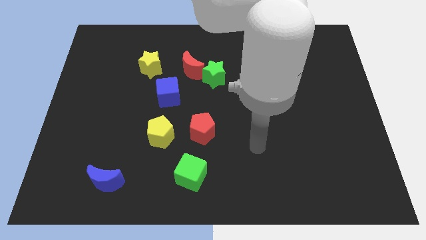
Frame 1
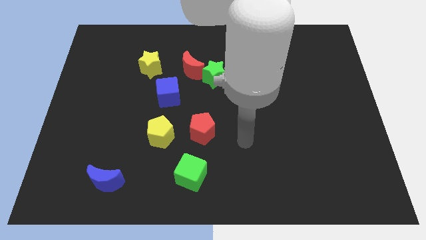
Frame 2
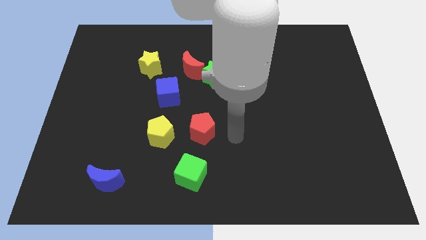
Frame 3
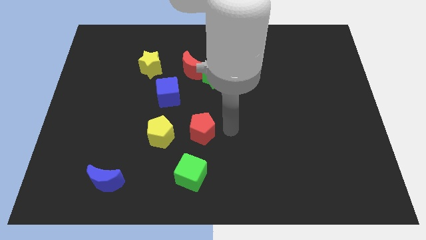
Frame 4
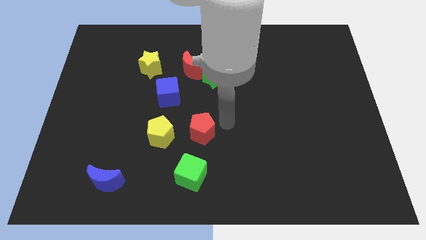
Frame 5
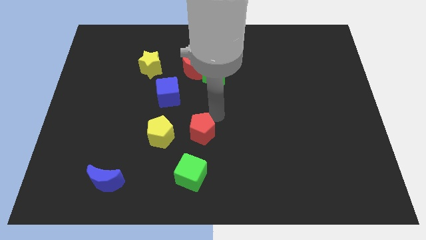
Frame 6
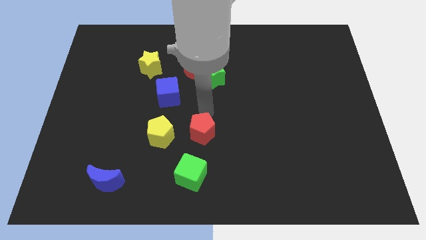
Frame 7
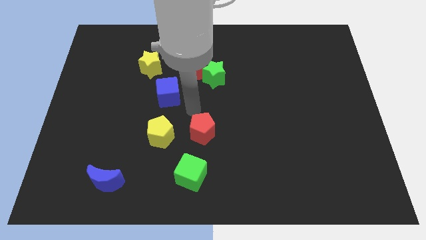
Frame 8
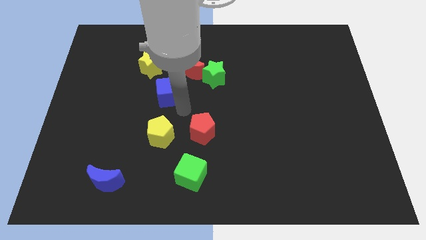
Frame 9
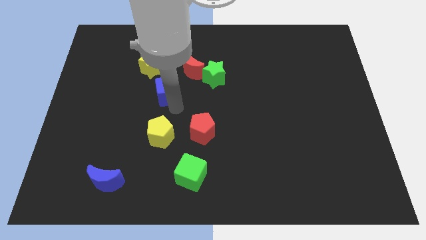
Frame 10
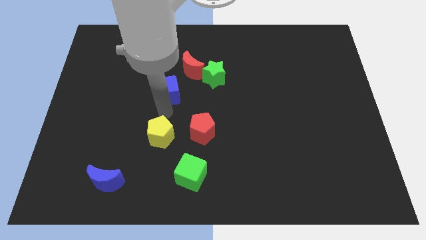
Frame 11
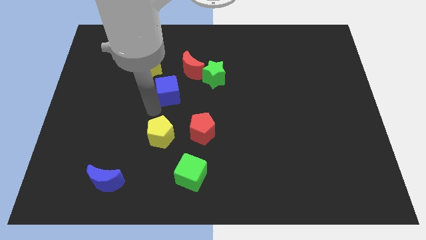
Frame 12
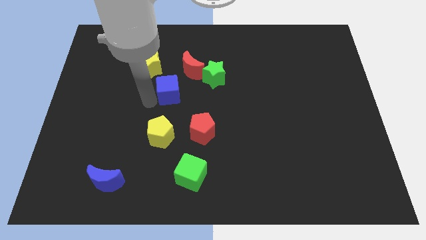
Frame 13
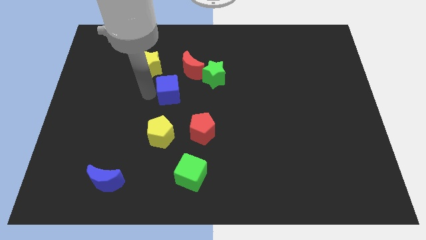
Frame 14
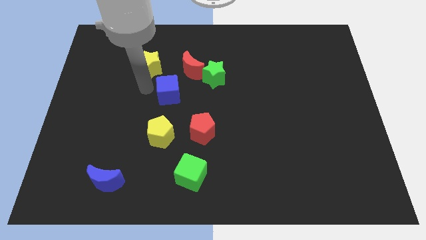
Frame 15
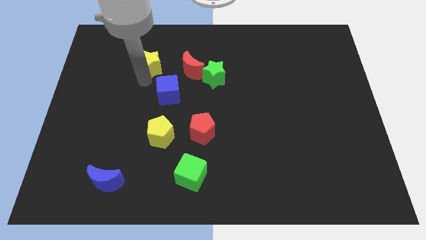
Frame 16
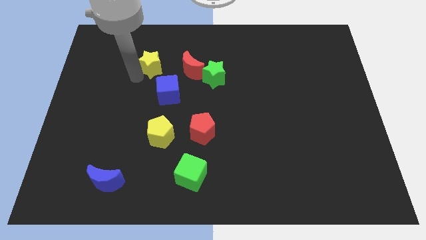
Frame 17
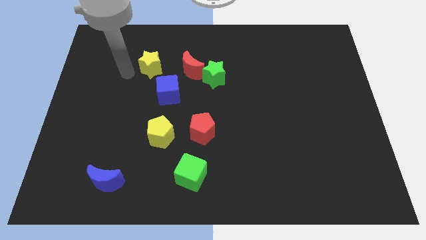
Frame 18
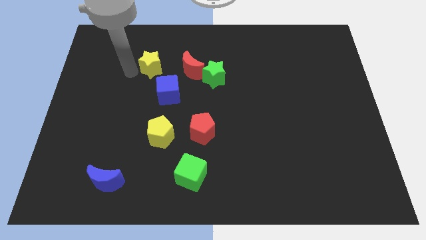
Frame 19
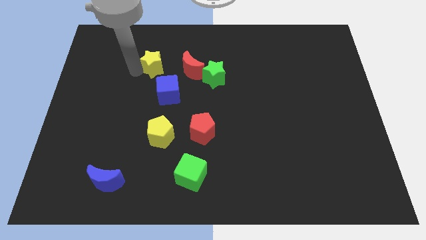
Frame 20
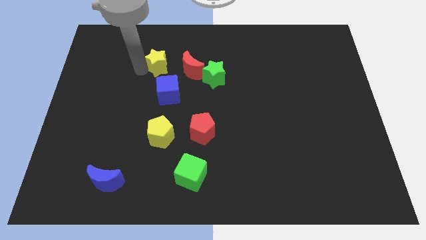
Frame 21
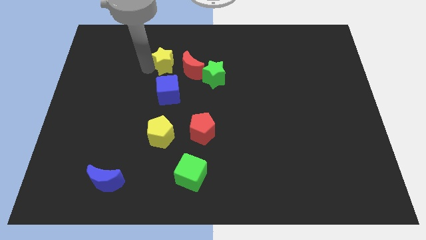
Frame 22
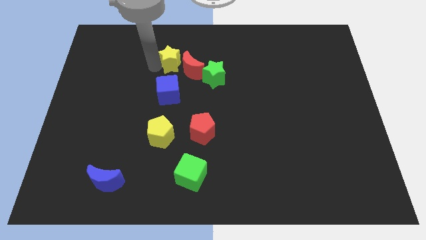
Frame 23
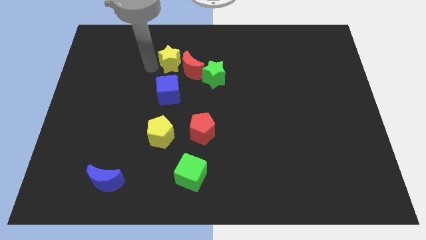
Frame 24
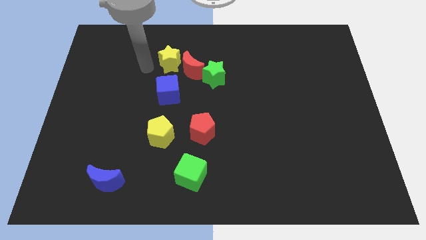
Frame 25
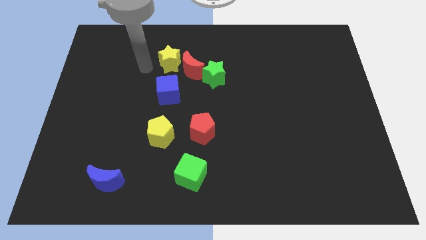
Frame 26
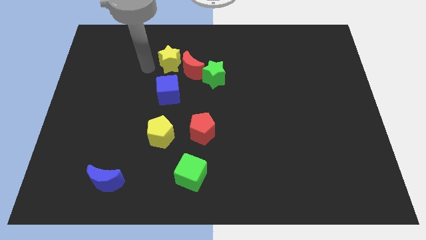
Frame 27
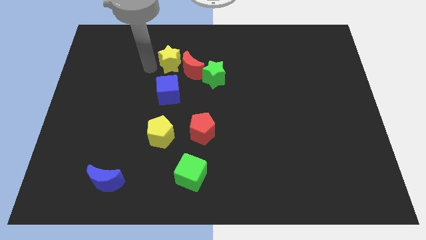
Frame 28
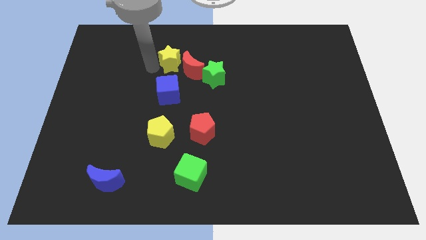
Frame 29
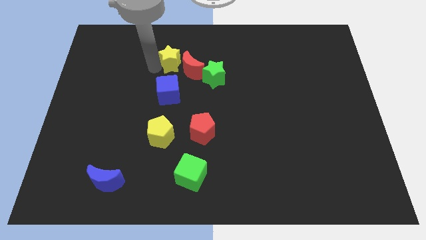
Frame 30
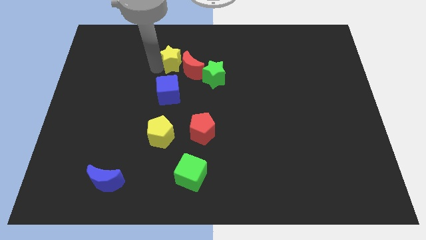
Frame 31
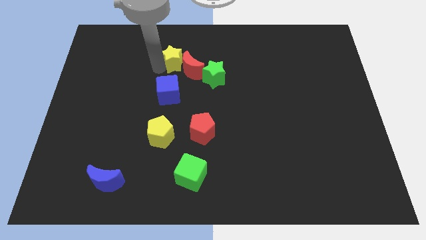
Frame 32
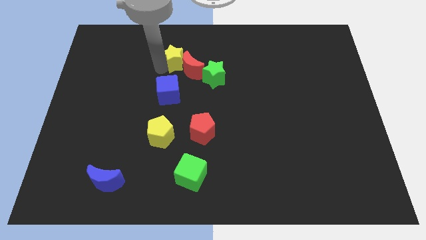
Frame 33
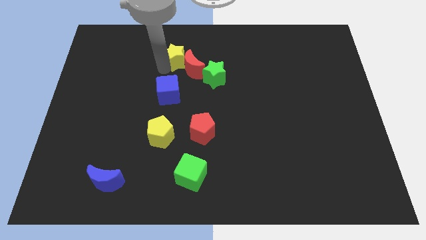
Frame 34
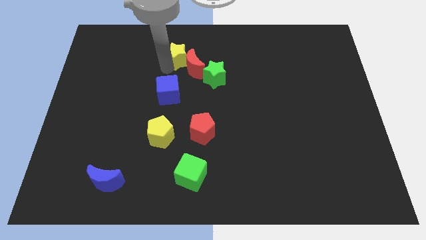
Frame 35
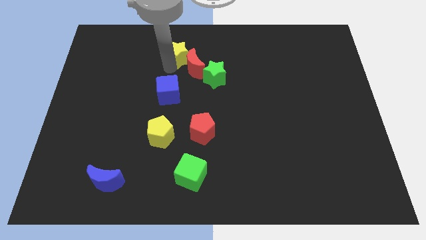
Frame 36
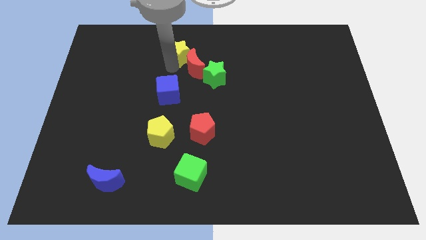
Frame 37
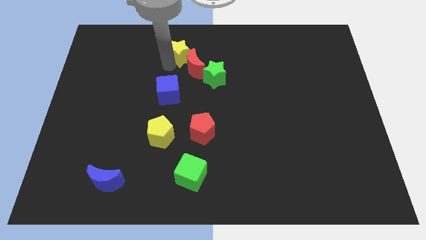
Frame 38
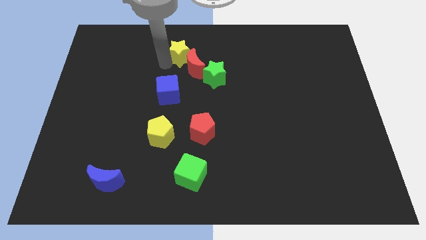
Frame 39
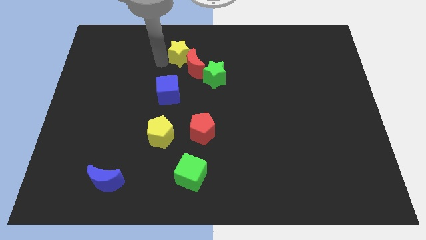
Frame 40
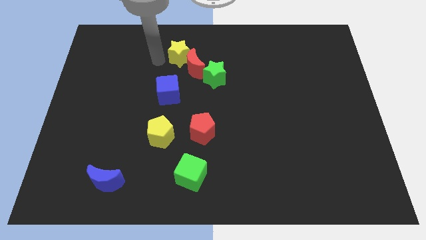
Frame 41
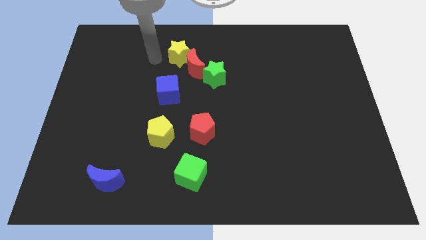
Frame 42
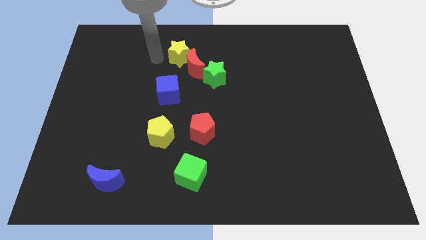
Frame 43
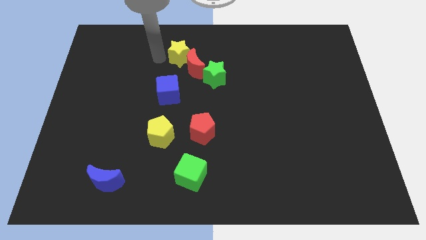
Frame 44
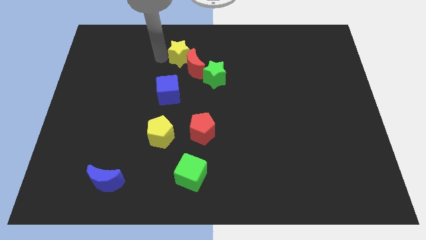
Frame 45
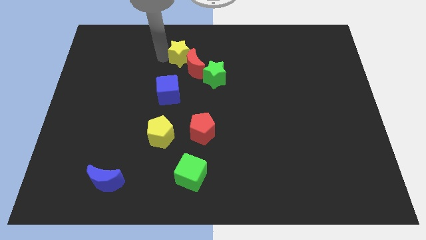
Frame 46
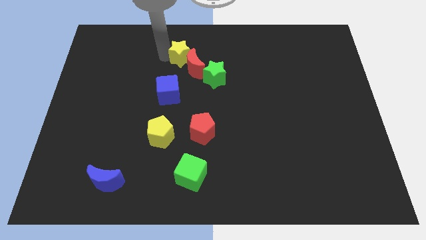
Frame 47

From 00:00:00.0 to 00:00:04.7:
slightly slide the yellow star to the right

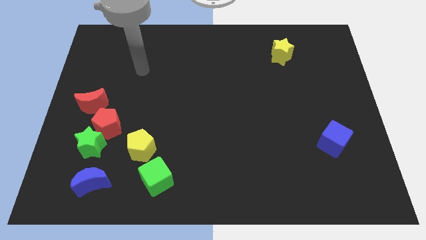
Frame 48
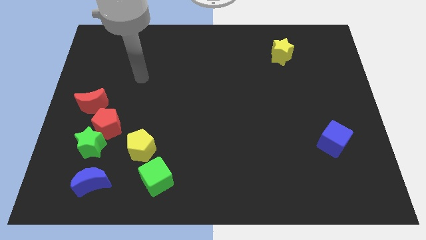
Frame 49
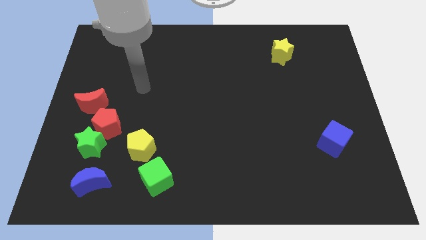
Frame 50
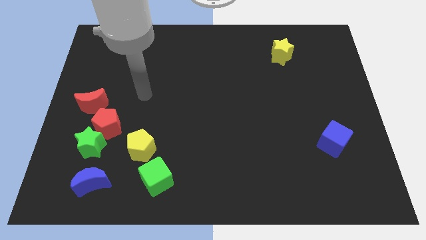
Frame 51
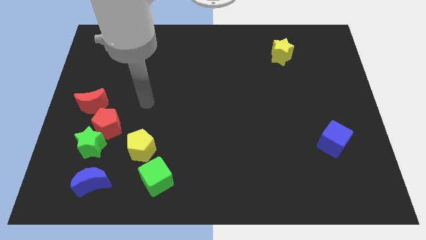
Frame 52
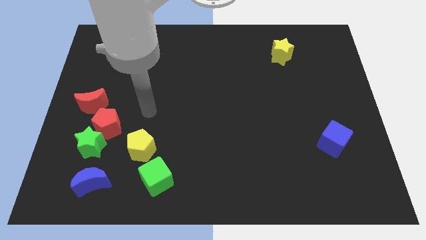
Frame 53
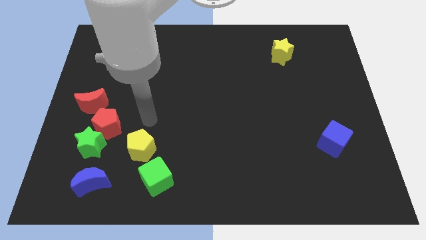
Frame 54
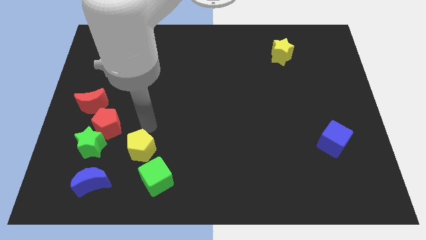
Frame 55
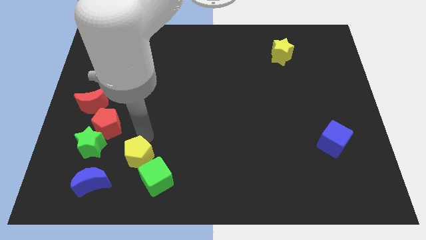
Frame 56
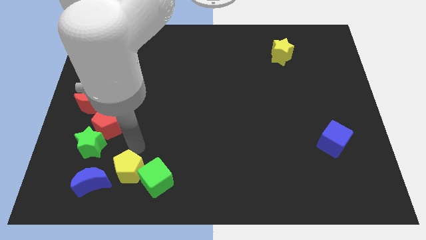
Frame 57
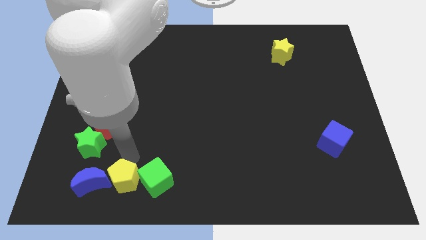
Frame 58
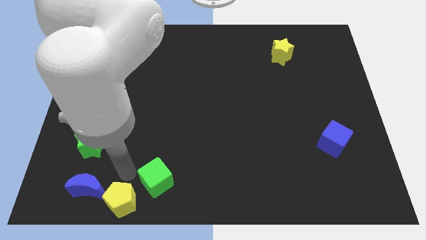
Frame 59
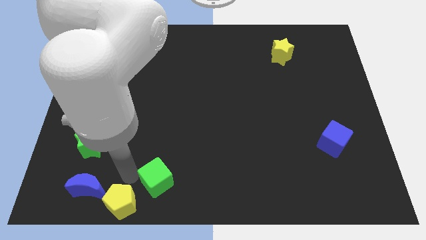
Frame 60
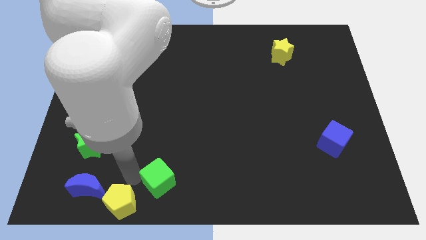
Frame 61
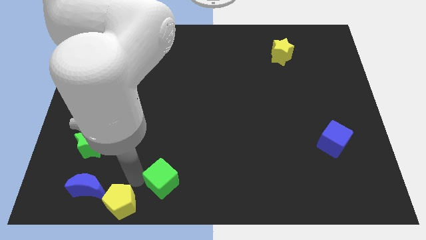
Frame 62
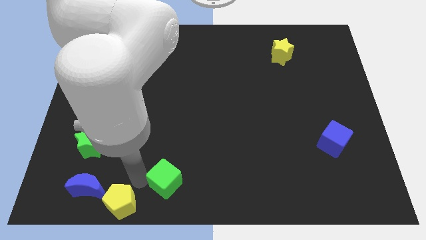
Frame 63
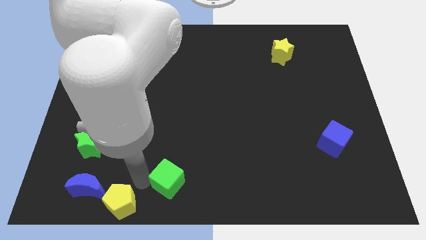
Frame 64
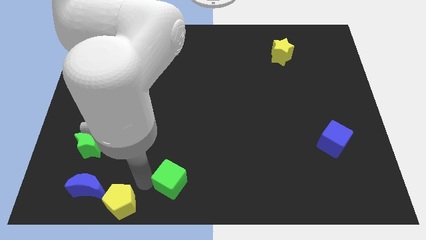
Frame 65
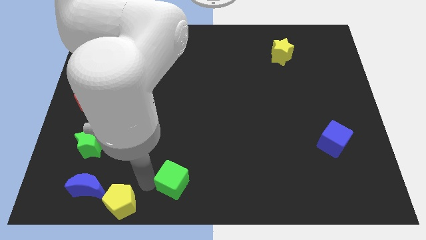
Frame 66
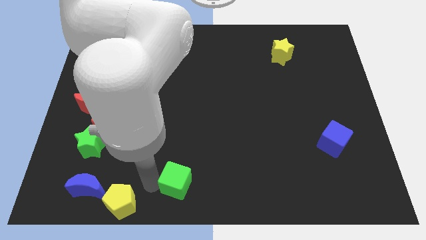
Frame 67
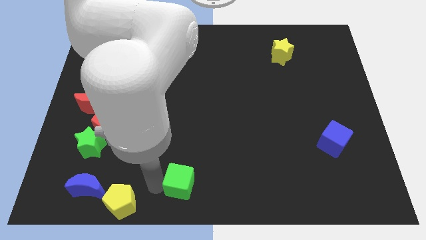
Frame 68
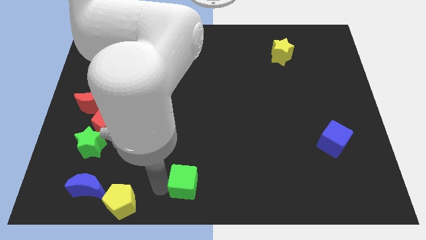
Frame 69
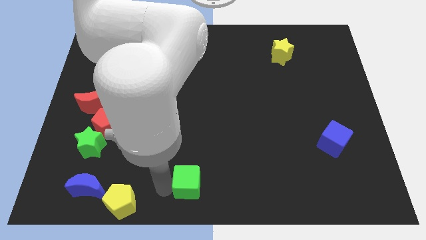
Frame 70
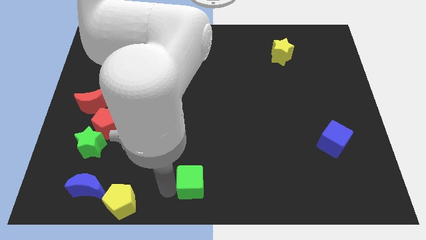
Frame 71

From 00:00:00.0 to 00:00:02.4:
move the green cube a little bit right
